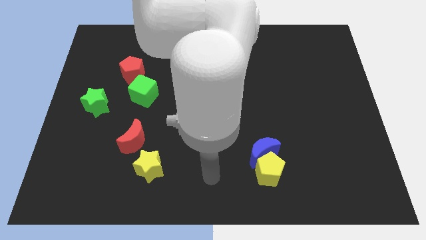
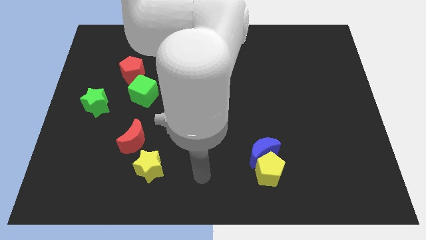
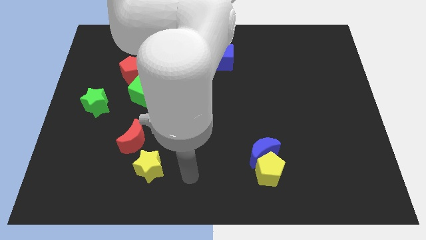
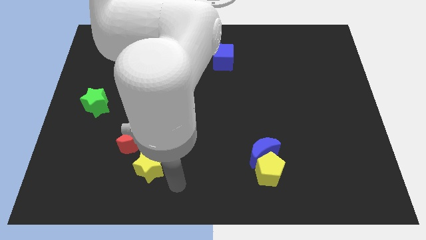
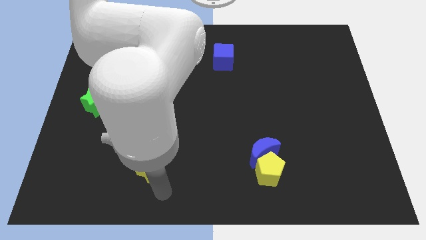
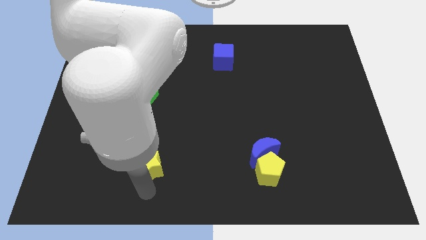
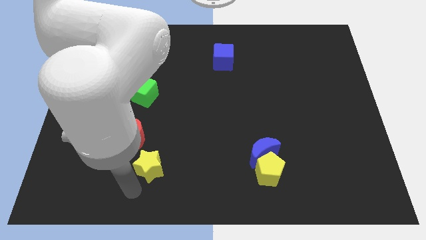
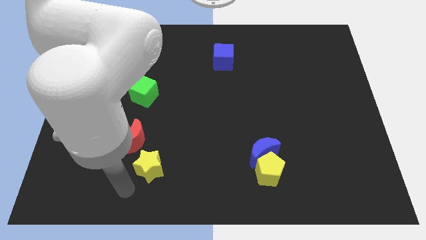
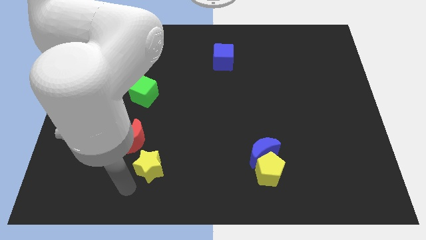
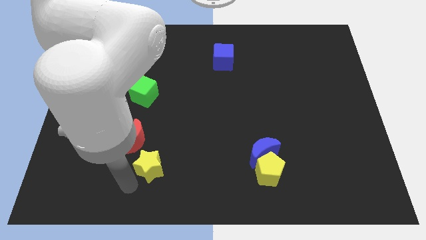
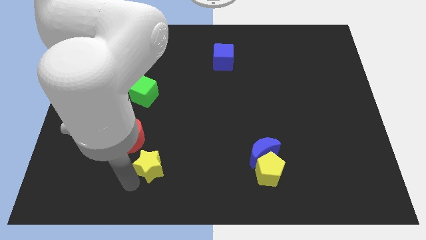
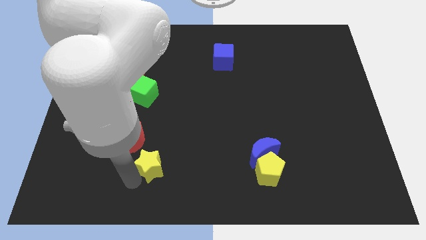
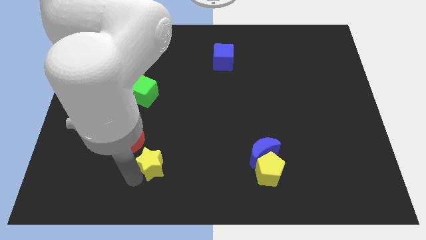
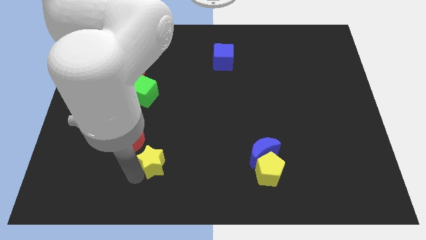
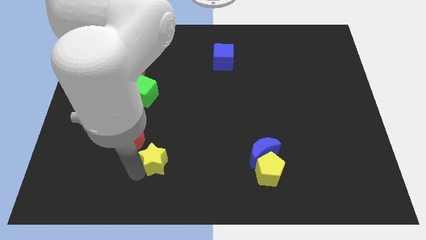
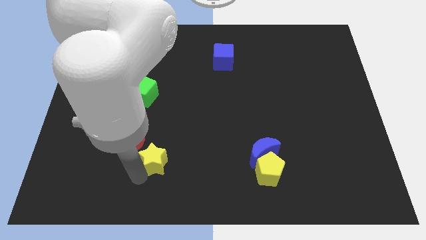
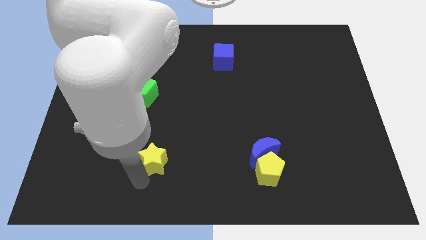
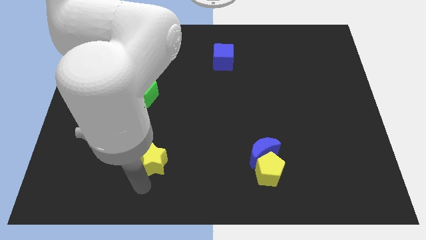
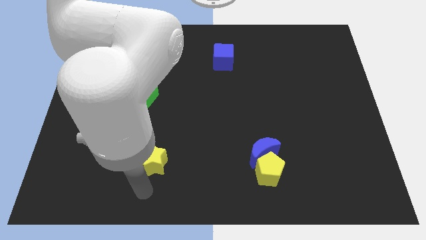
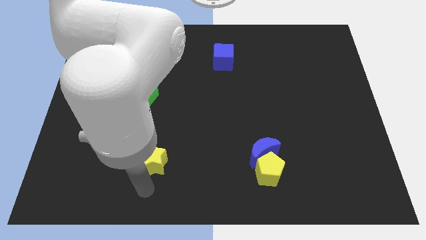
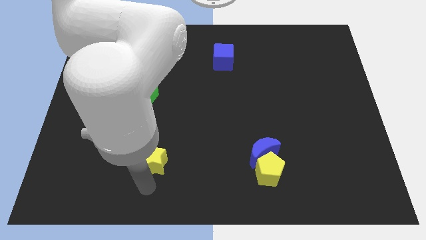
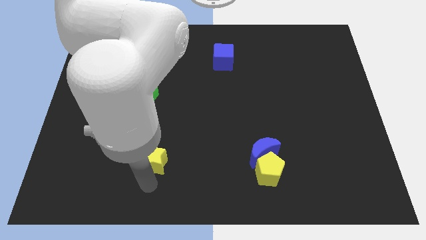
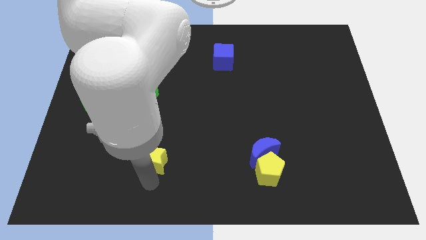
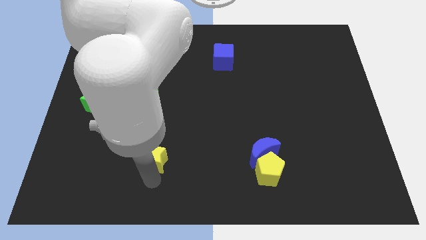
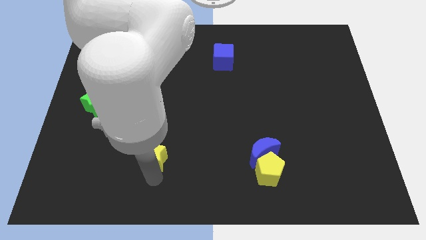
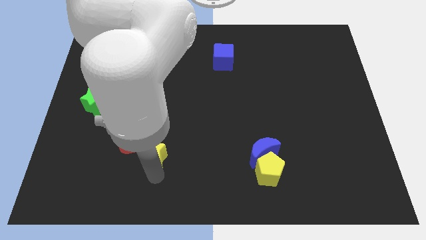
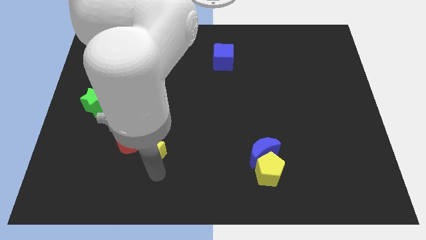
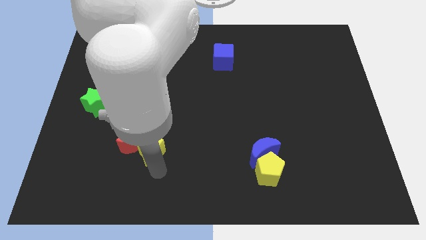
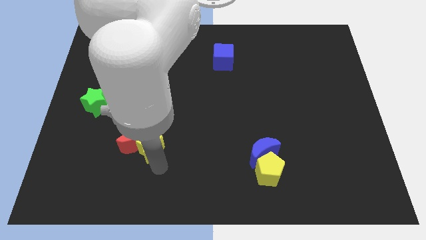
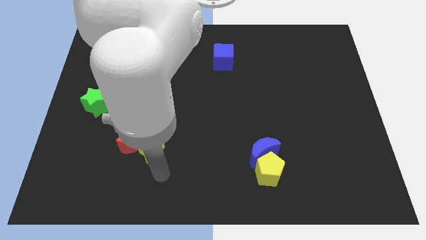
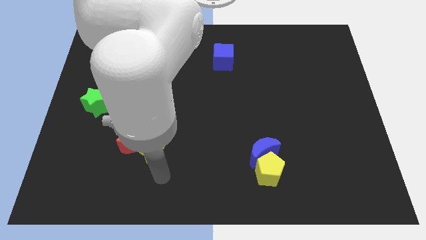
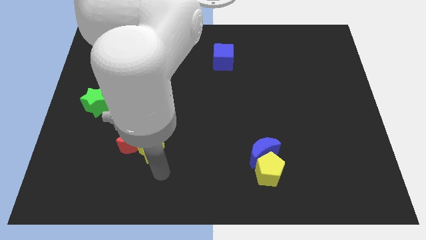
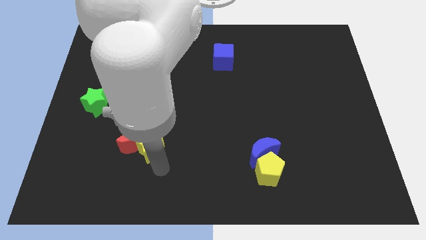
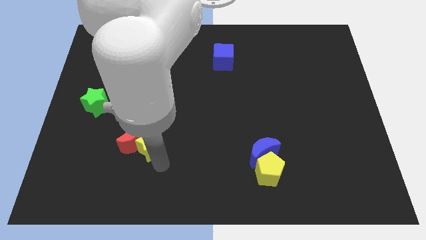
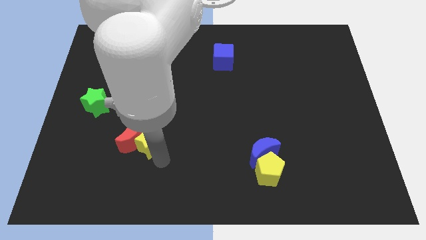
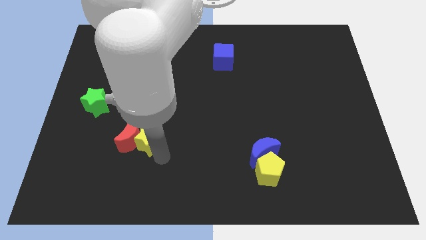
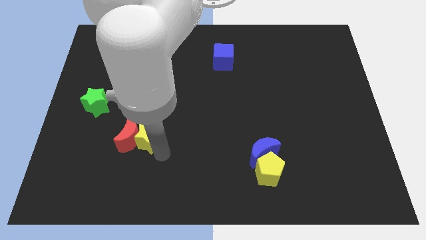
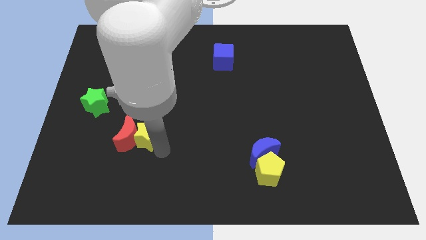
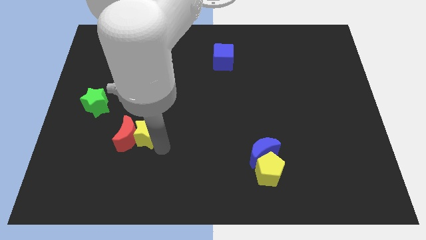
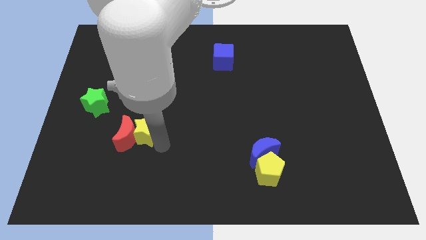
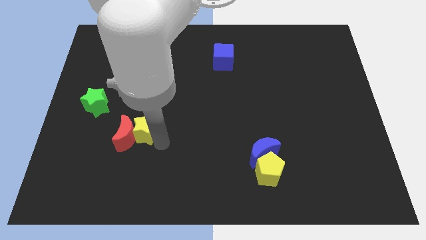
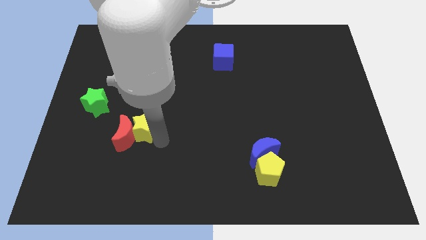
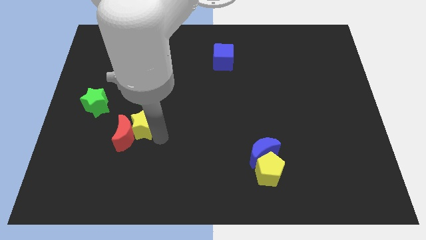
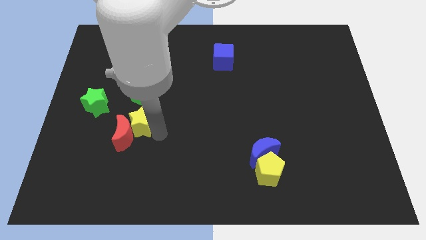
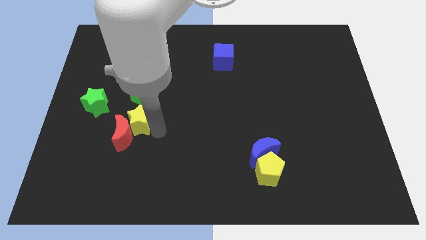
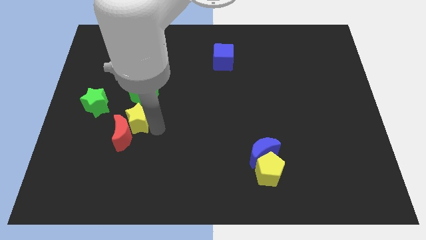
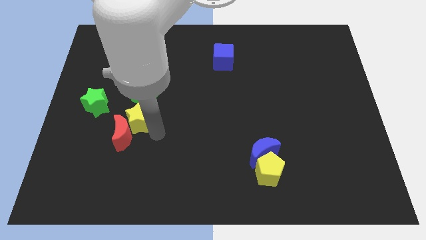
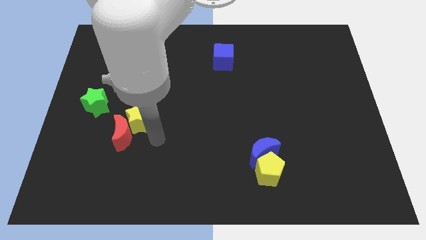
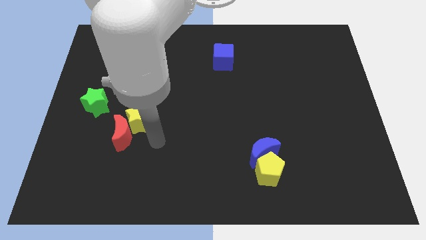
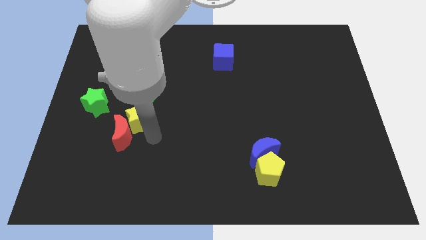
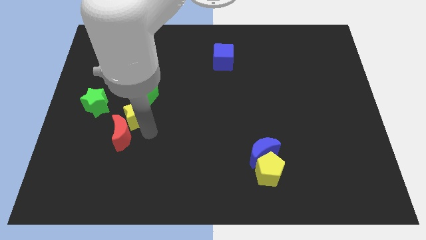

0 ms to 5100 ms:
put the yellow star to the bottom side of the red pentagon

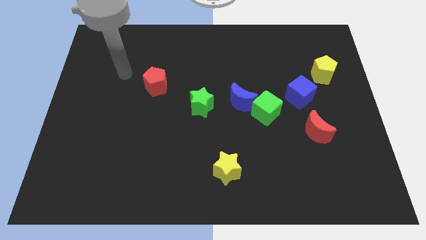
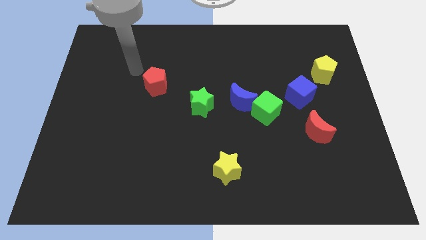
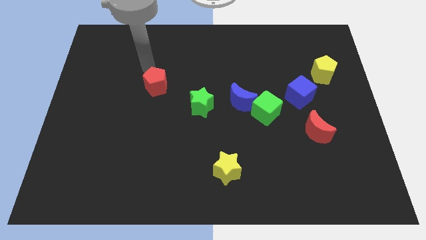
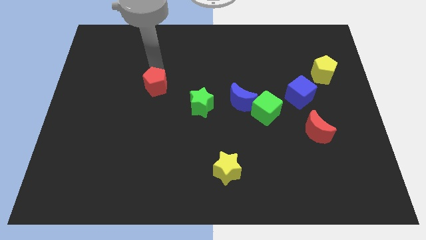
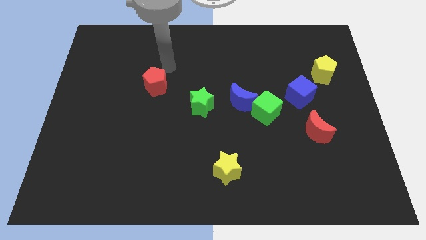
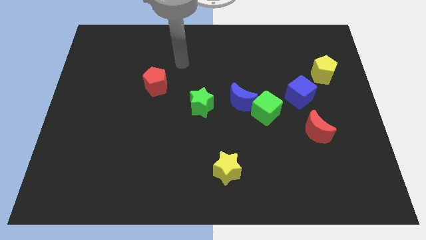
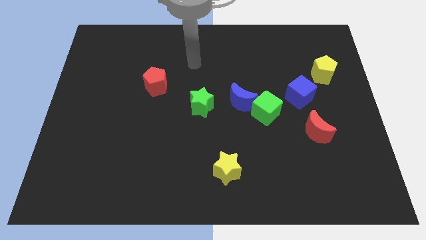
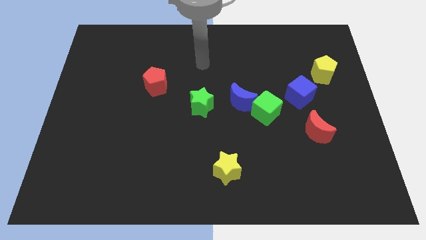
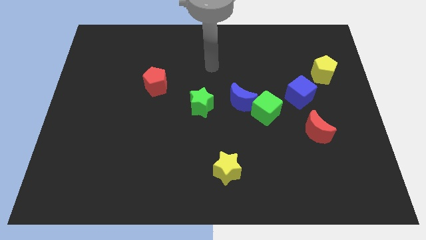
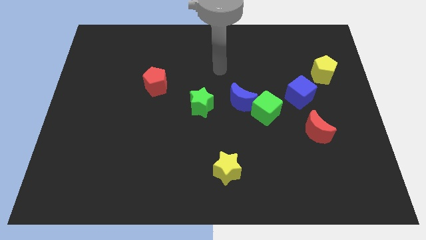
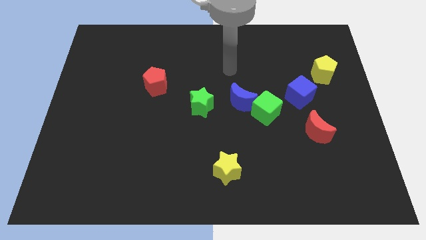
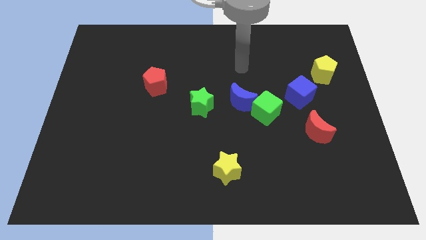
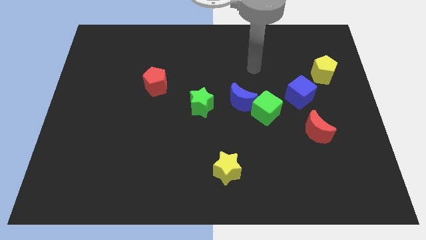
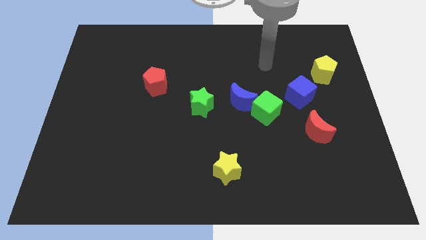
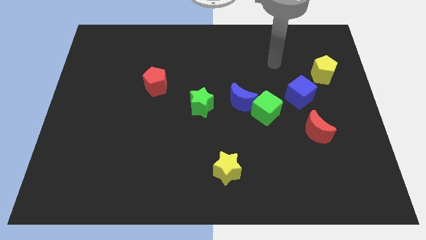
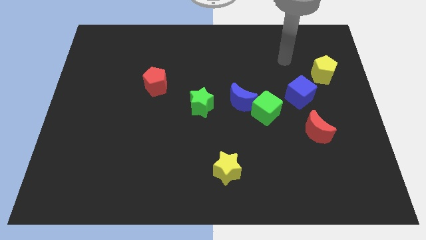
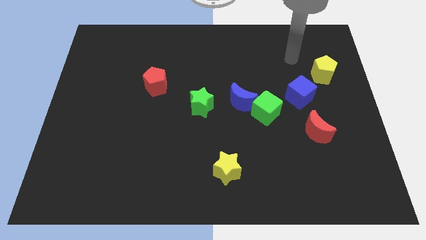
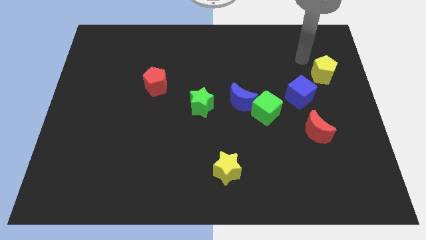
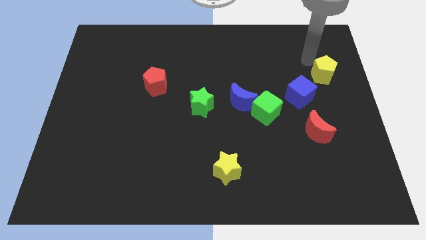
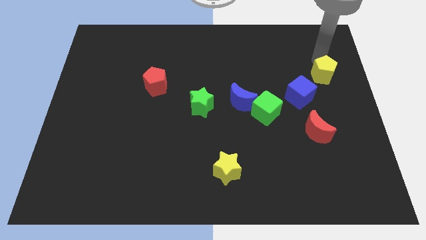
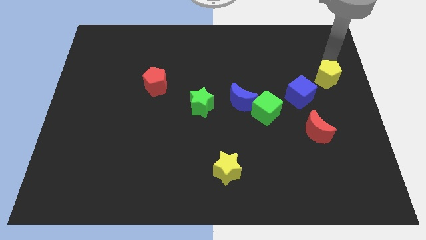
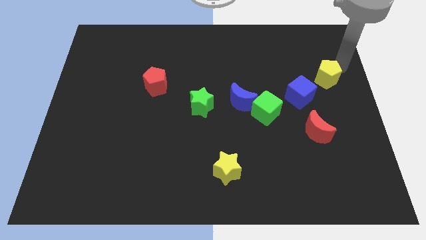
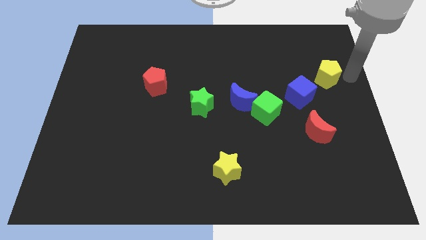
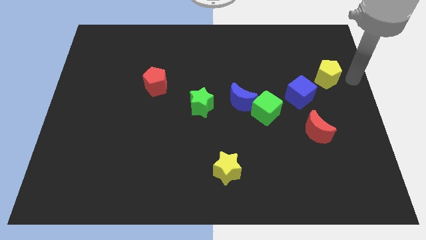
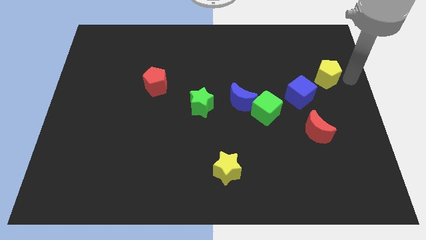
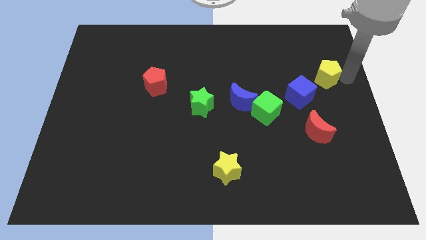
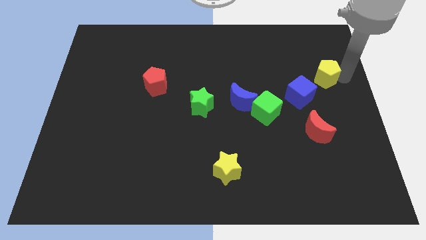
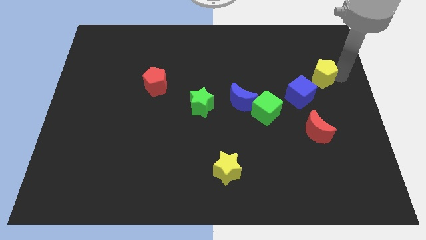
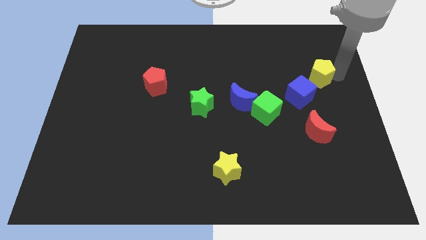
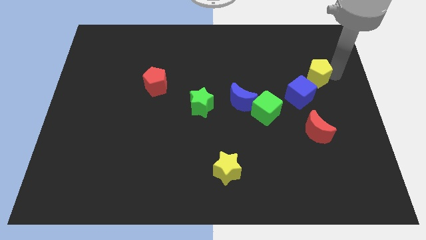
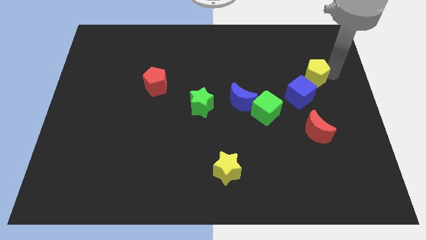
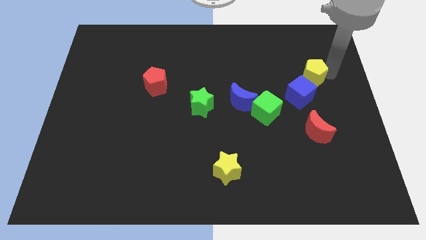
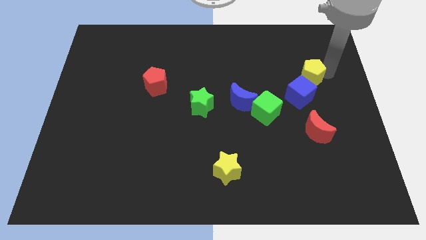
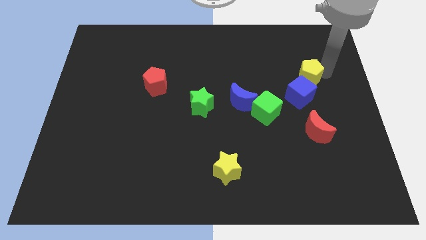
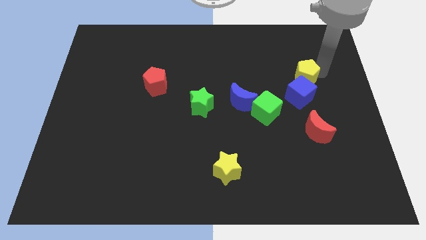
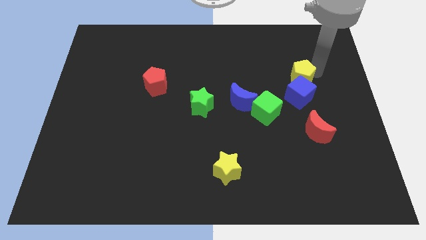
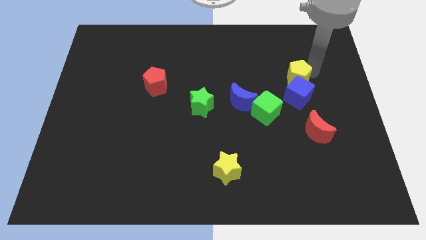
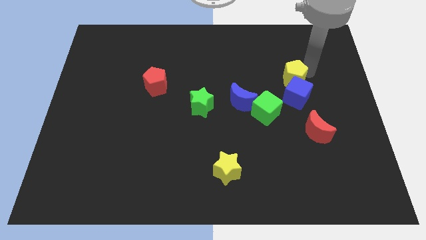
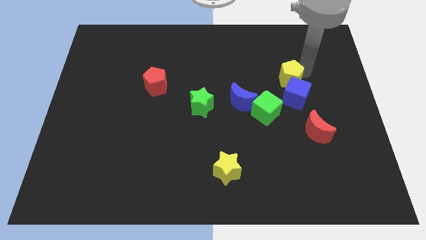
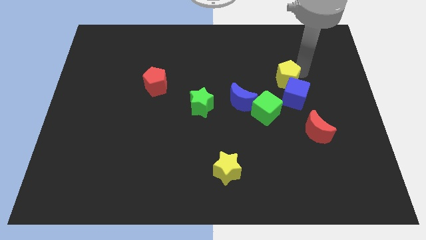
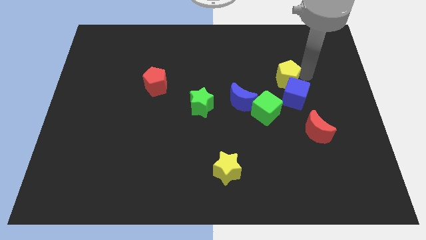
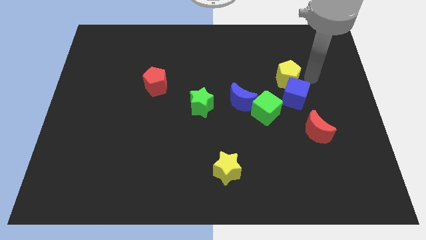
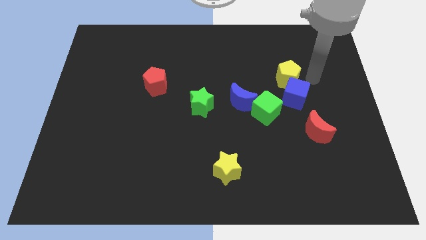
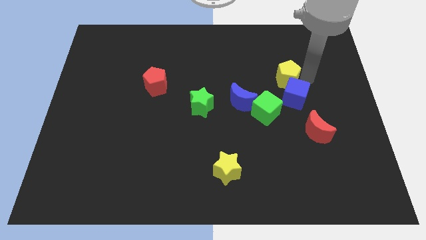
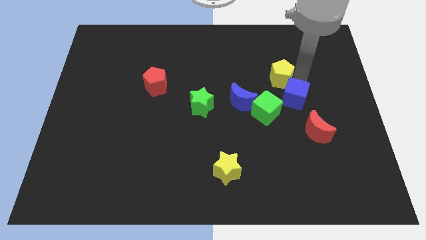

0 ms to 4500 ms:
push the yellow pentagon above the green cube
